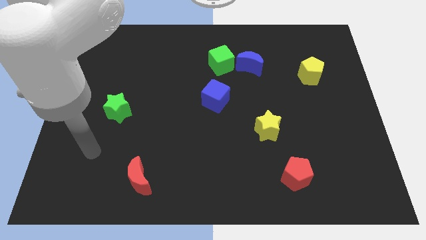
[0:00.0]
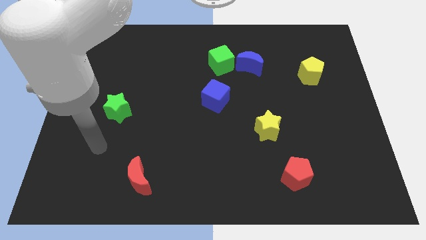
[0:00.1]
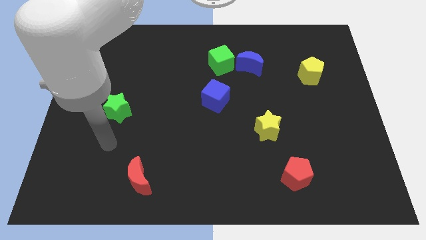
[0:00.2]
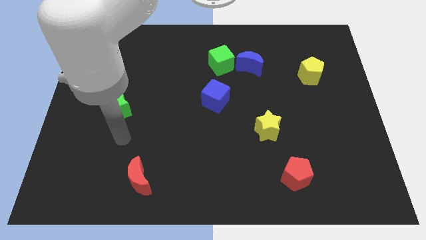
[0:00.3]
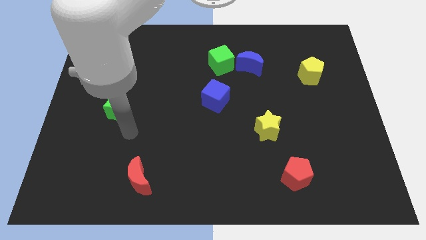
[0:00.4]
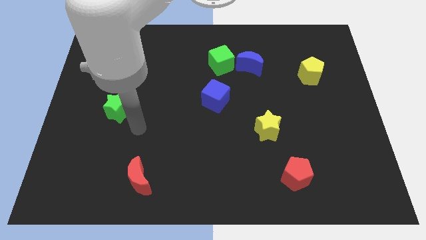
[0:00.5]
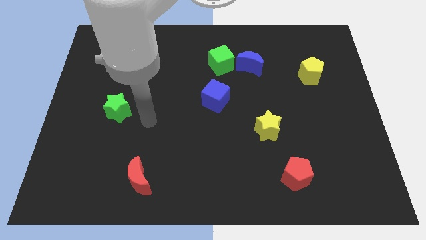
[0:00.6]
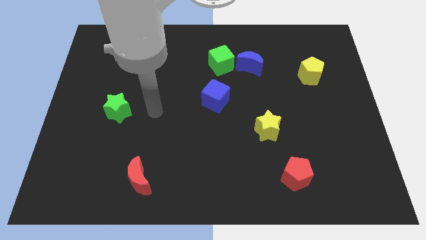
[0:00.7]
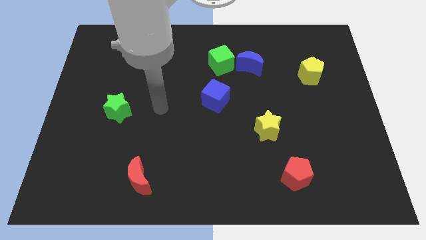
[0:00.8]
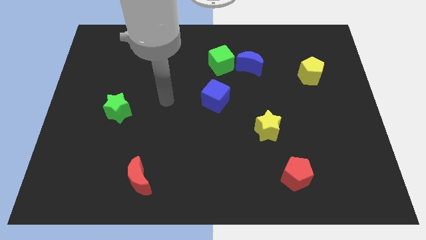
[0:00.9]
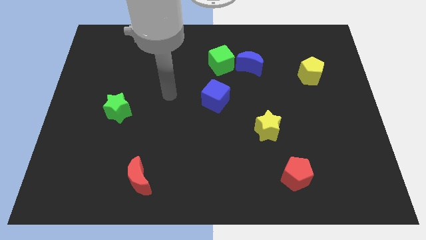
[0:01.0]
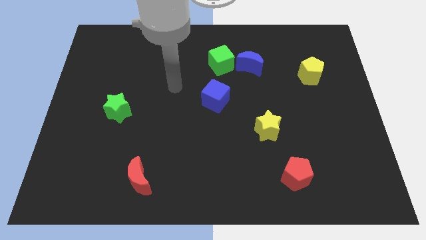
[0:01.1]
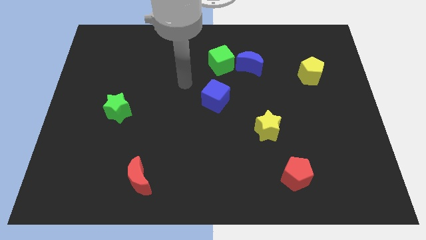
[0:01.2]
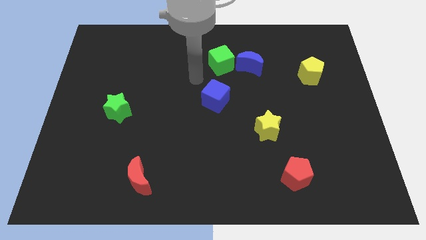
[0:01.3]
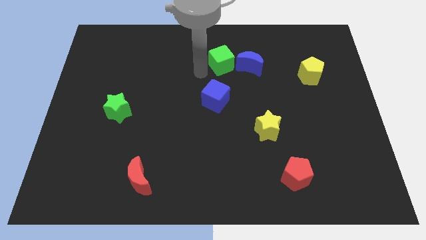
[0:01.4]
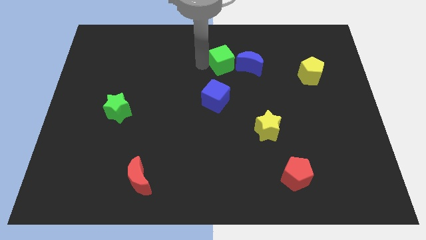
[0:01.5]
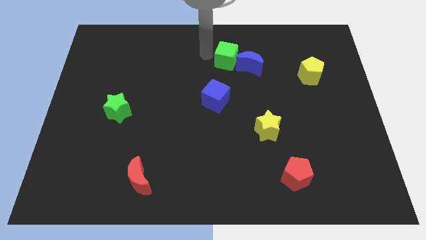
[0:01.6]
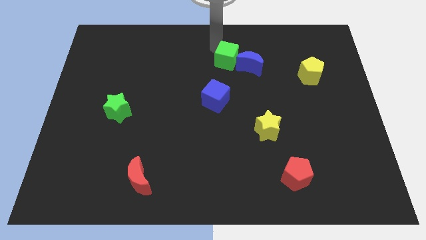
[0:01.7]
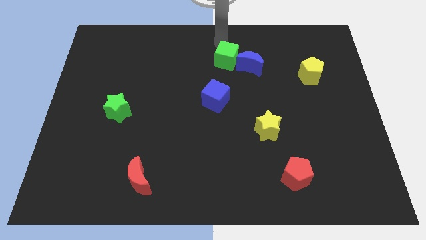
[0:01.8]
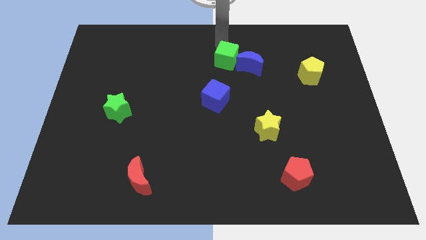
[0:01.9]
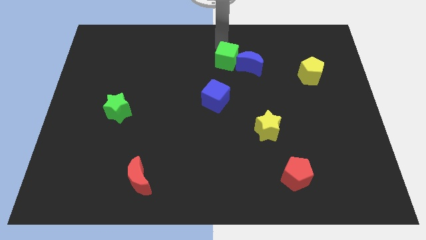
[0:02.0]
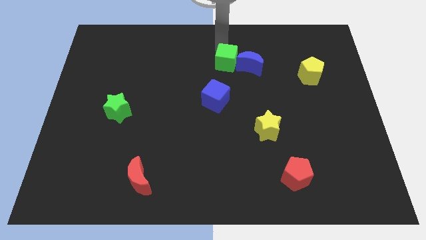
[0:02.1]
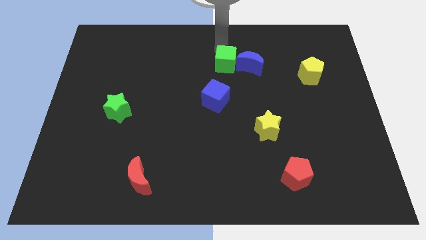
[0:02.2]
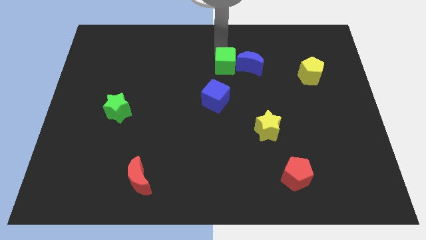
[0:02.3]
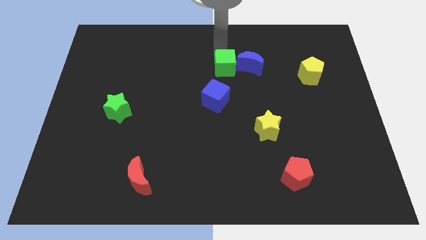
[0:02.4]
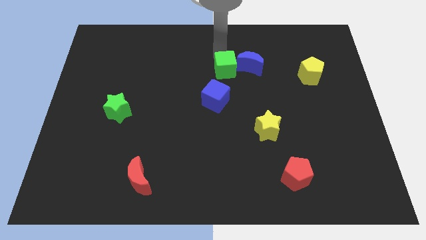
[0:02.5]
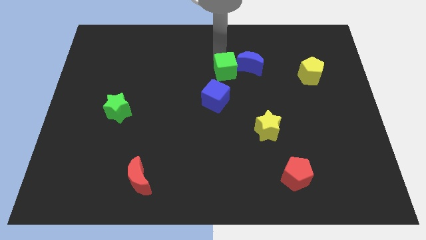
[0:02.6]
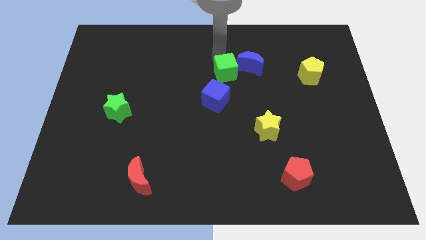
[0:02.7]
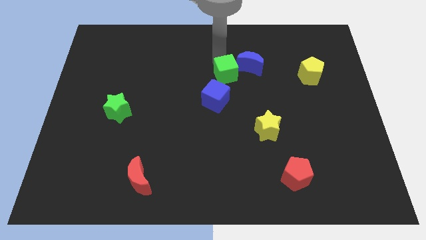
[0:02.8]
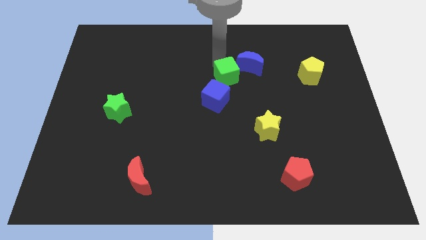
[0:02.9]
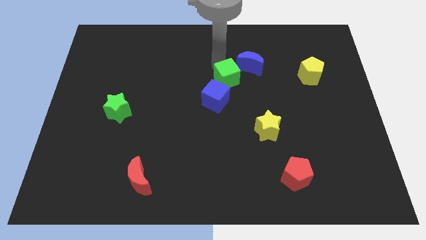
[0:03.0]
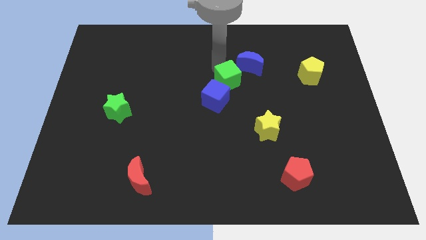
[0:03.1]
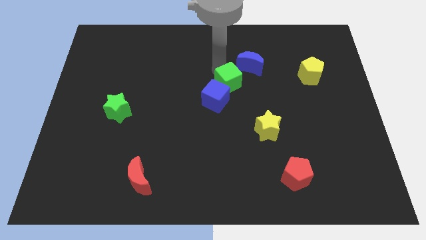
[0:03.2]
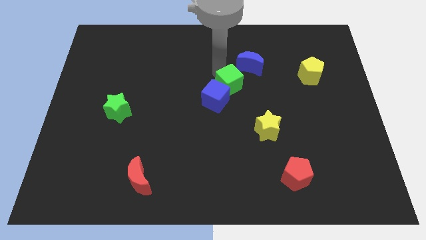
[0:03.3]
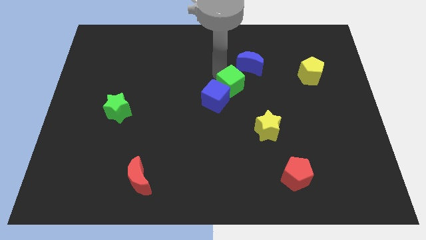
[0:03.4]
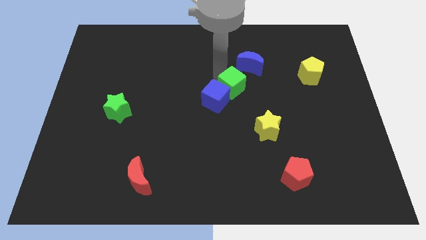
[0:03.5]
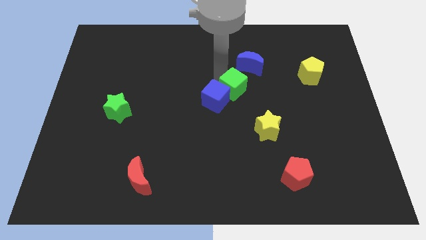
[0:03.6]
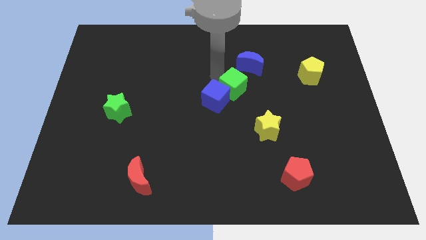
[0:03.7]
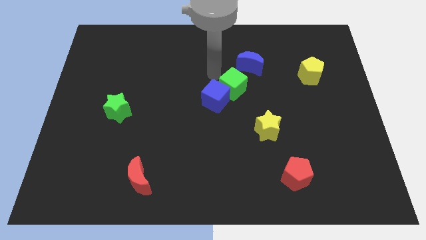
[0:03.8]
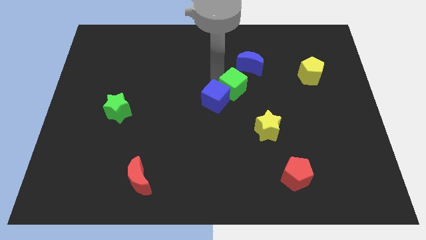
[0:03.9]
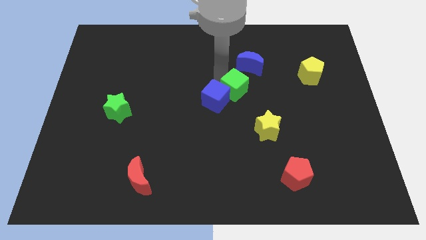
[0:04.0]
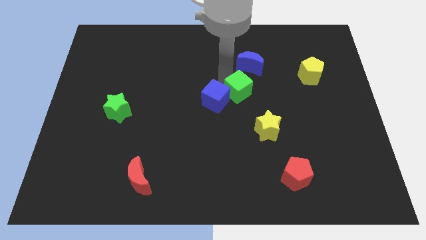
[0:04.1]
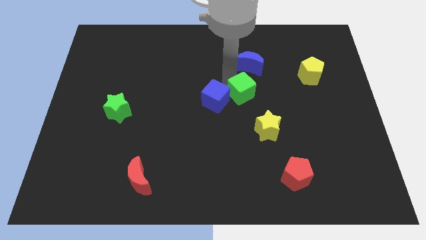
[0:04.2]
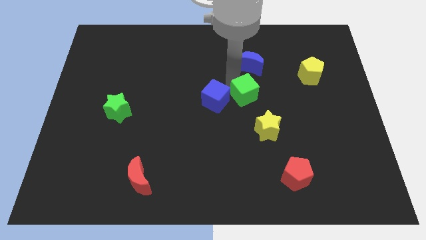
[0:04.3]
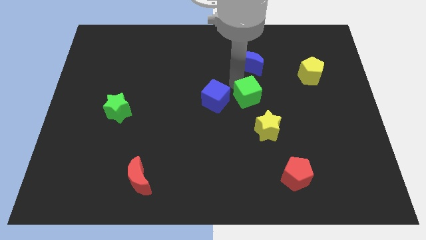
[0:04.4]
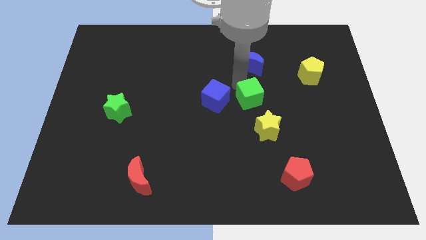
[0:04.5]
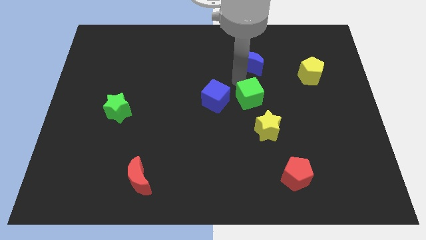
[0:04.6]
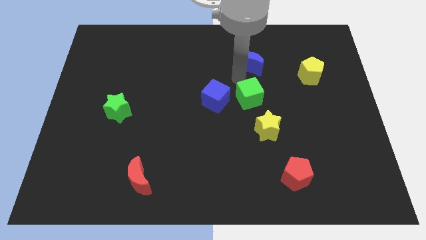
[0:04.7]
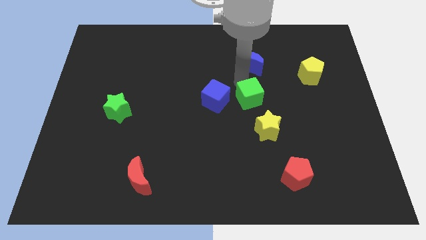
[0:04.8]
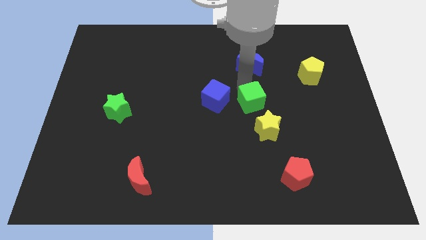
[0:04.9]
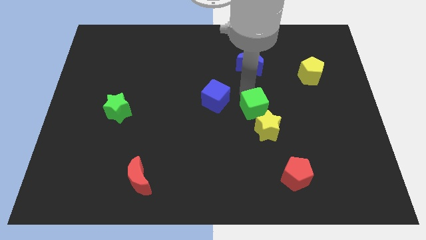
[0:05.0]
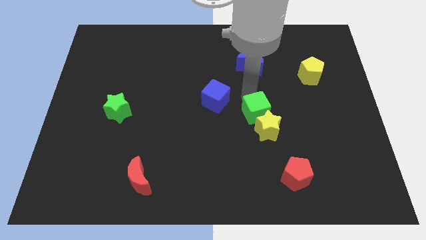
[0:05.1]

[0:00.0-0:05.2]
slide the green cube next to the yellow star
